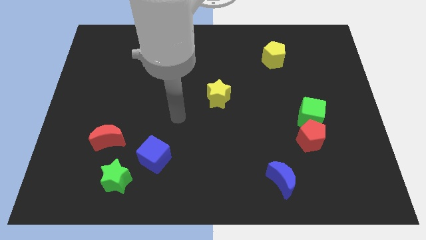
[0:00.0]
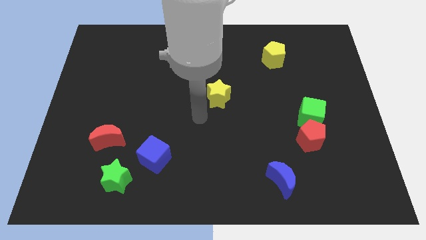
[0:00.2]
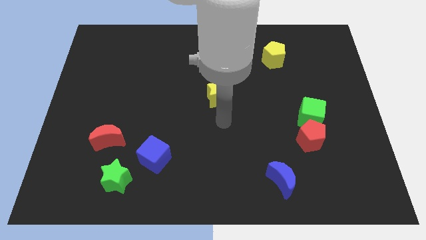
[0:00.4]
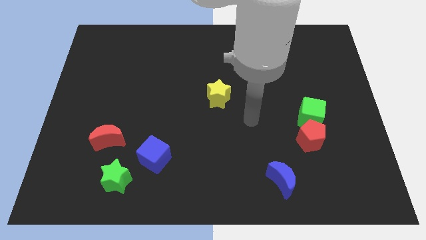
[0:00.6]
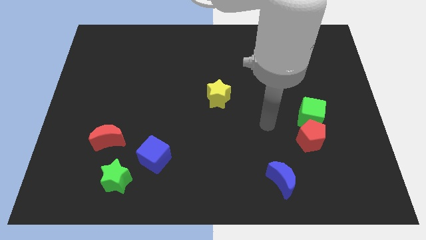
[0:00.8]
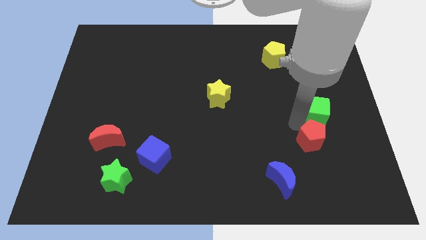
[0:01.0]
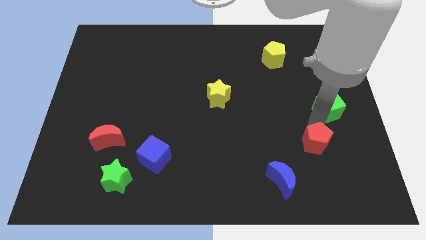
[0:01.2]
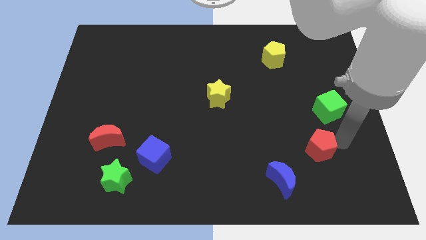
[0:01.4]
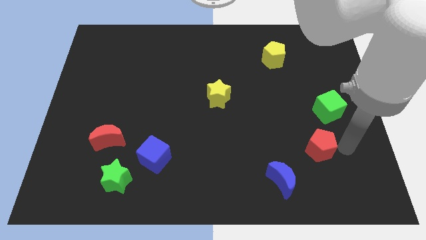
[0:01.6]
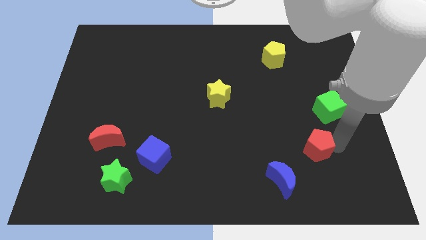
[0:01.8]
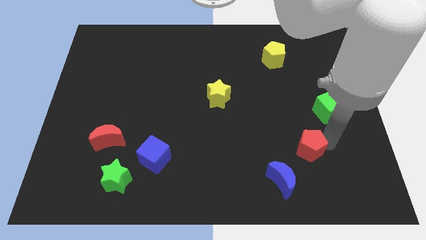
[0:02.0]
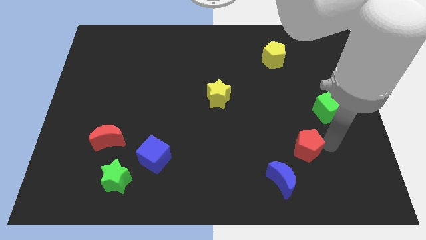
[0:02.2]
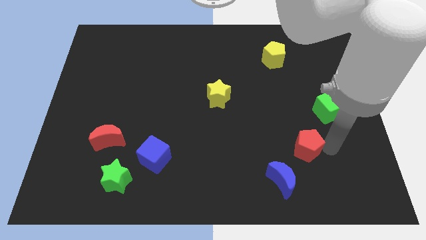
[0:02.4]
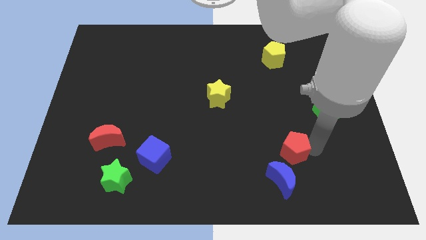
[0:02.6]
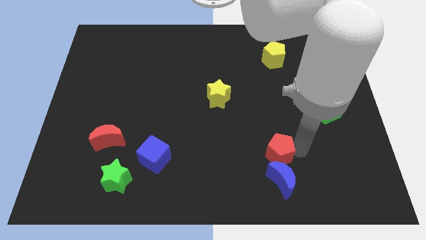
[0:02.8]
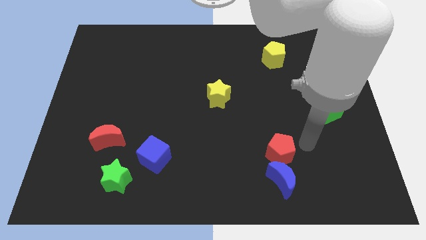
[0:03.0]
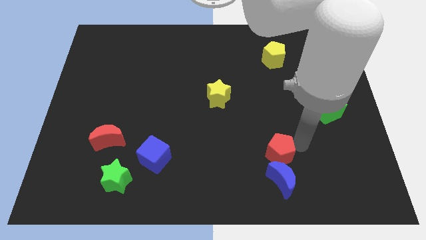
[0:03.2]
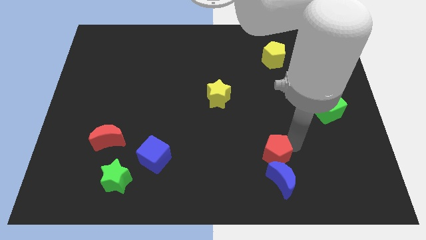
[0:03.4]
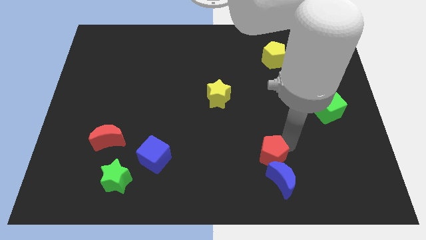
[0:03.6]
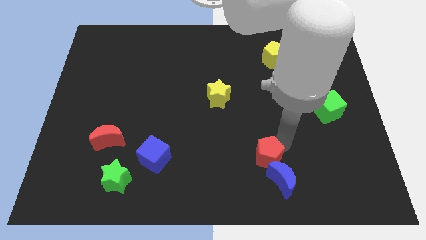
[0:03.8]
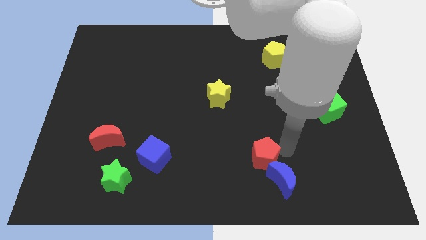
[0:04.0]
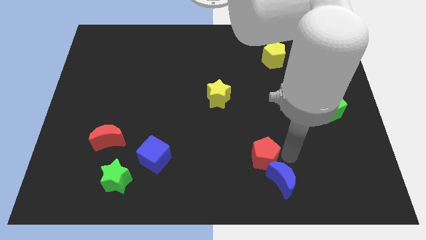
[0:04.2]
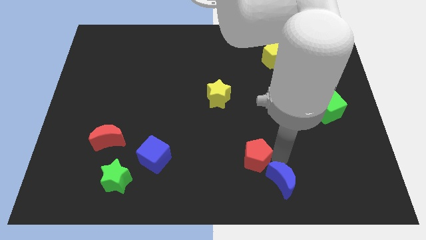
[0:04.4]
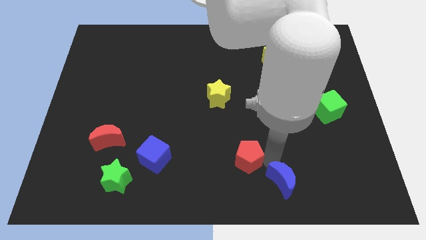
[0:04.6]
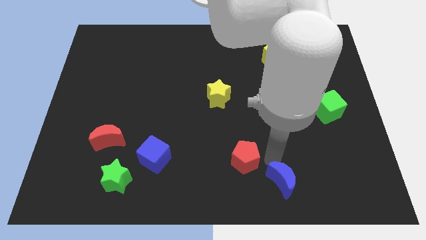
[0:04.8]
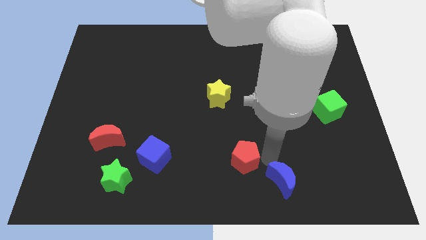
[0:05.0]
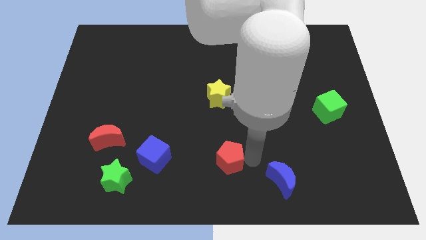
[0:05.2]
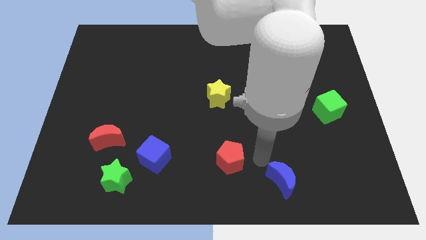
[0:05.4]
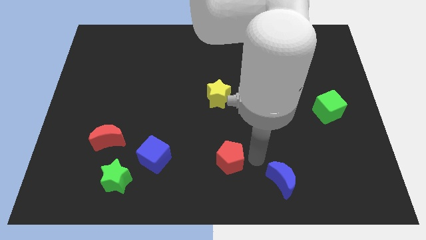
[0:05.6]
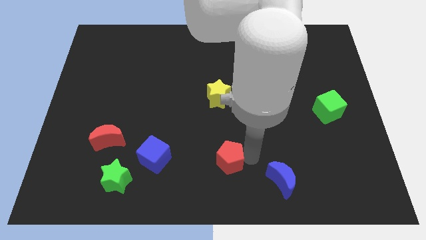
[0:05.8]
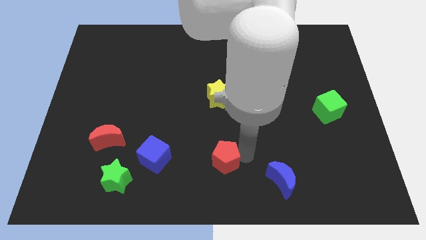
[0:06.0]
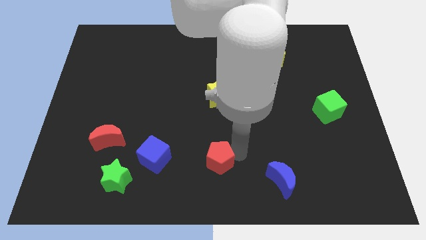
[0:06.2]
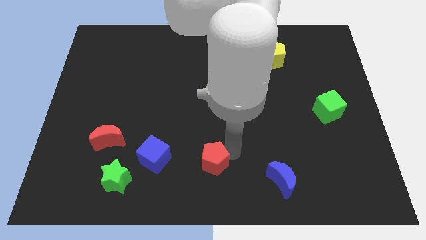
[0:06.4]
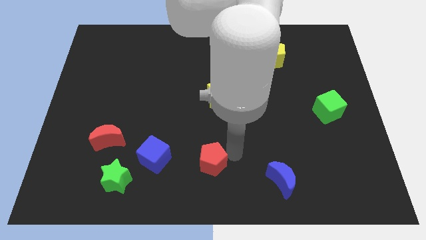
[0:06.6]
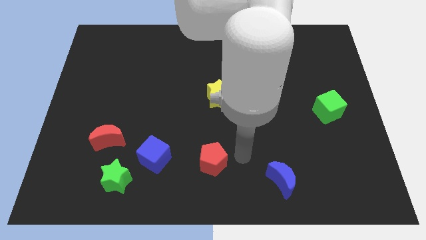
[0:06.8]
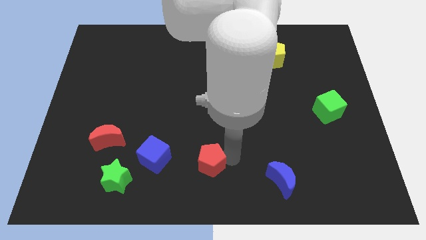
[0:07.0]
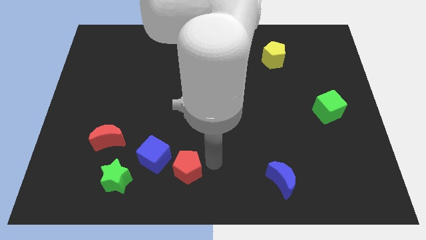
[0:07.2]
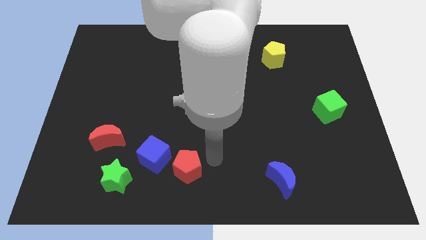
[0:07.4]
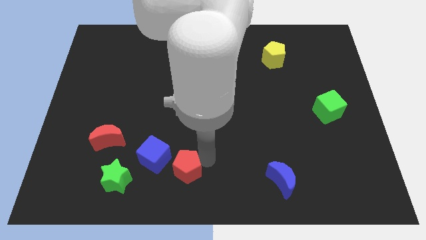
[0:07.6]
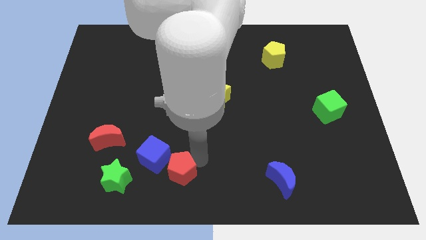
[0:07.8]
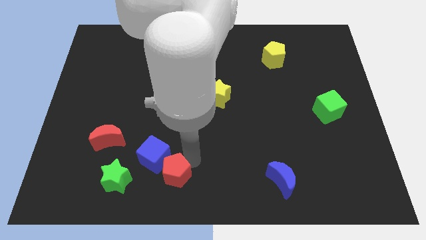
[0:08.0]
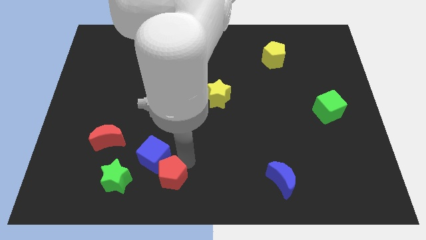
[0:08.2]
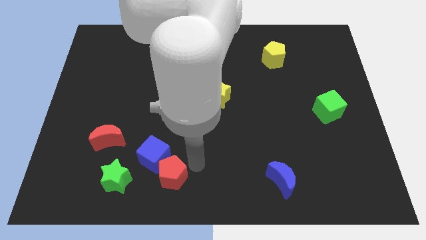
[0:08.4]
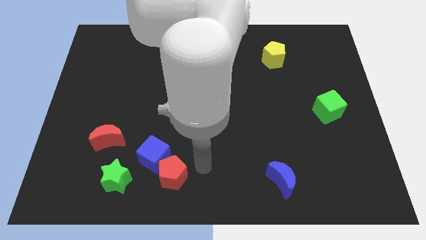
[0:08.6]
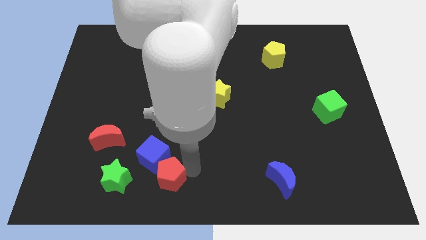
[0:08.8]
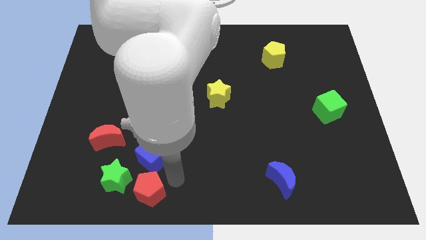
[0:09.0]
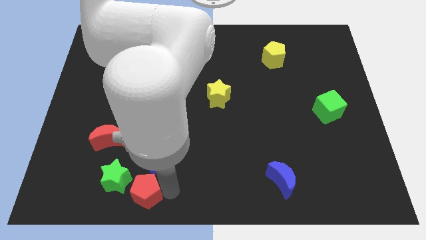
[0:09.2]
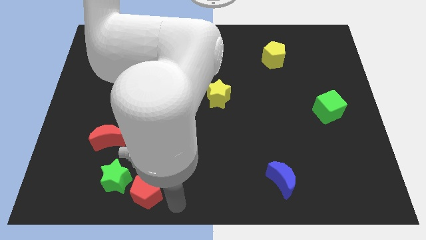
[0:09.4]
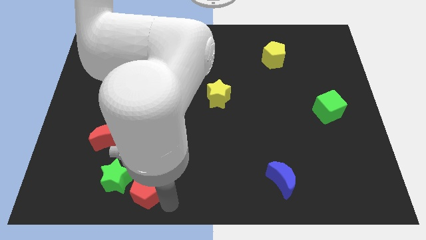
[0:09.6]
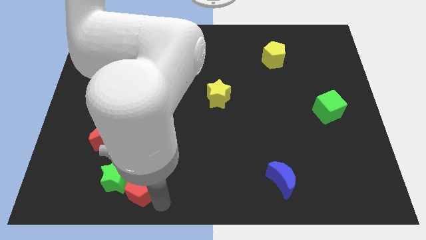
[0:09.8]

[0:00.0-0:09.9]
push the red pentagon towards the green star

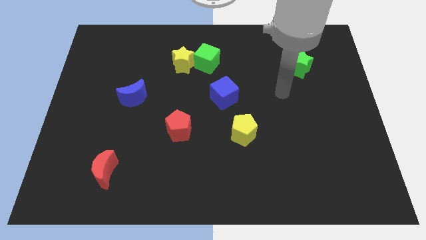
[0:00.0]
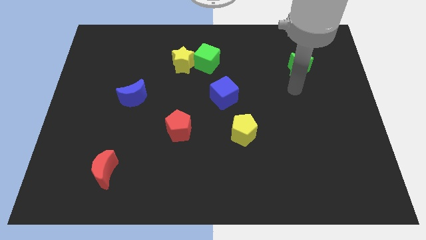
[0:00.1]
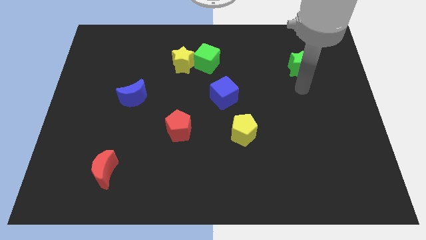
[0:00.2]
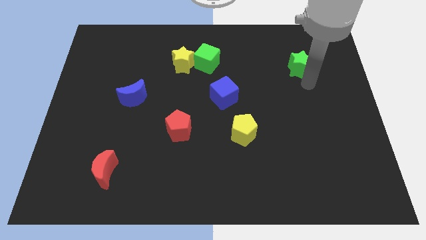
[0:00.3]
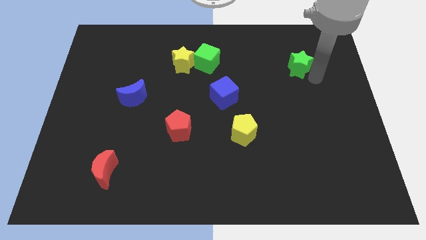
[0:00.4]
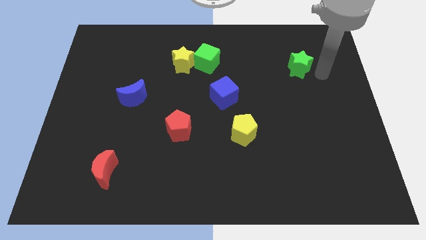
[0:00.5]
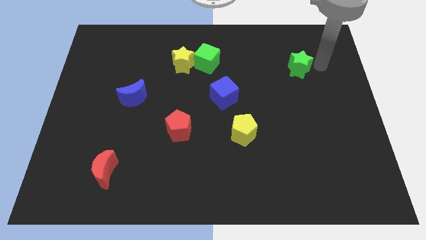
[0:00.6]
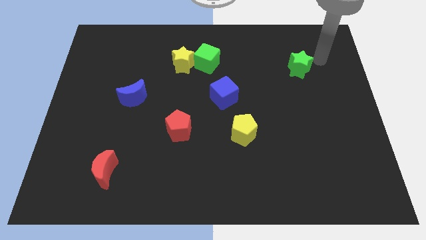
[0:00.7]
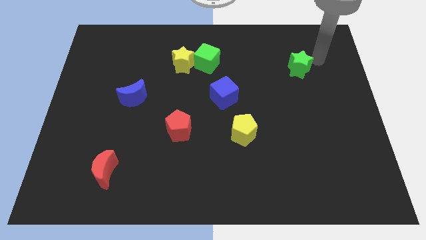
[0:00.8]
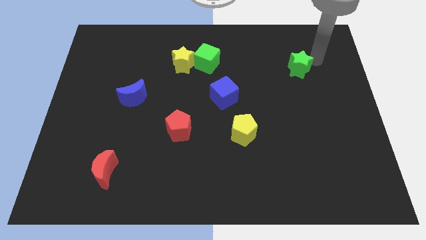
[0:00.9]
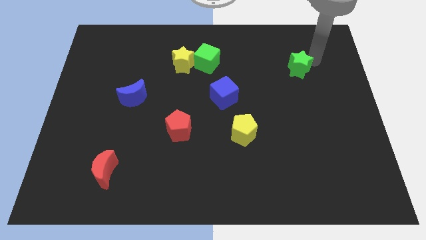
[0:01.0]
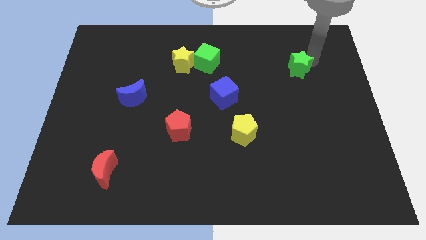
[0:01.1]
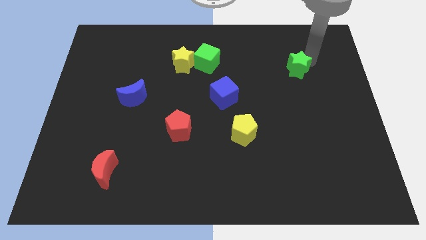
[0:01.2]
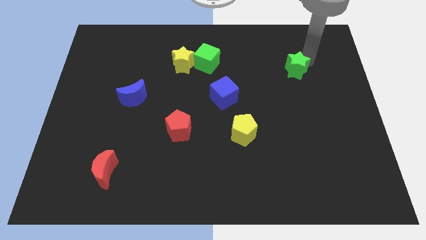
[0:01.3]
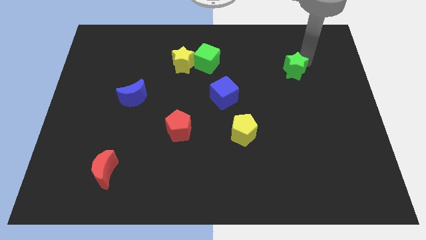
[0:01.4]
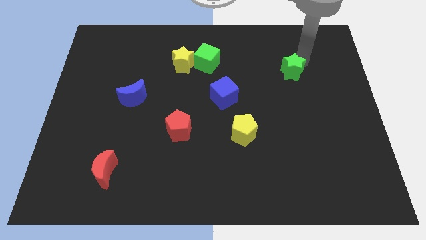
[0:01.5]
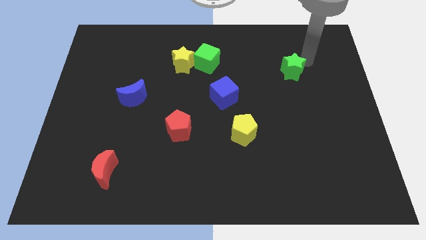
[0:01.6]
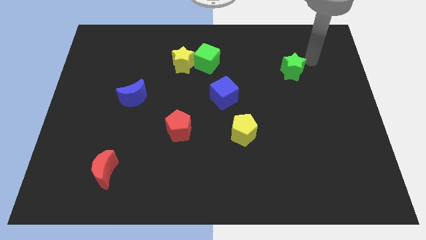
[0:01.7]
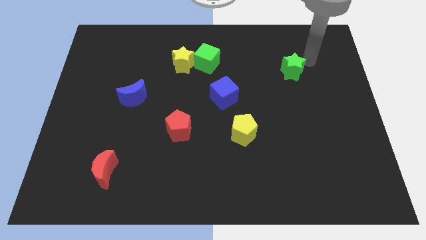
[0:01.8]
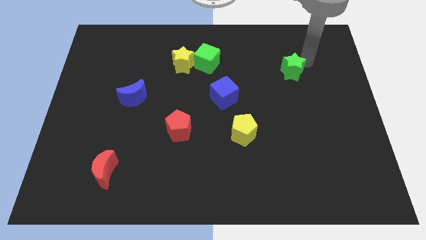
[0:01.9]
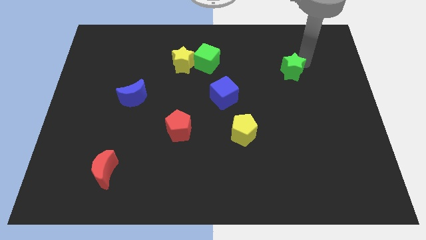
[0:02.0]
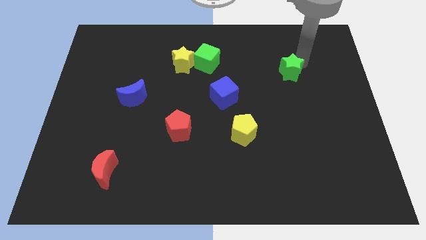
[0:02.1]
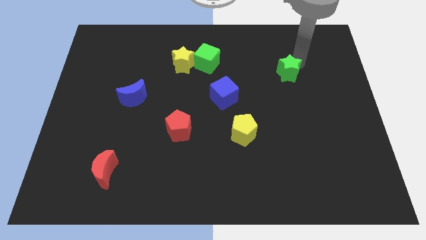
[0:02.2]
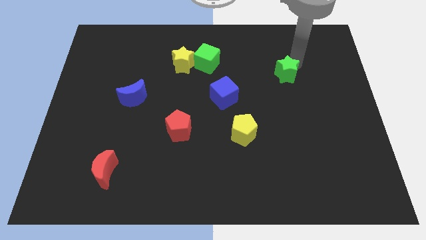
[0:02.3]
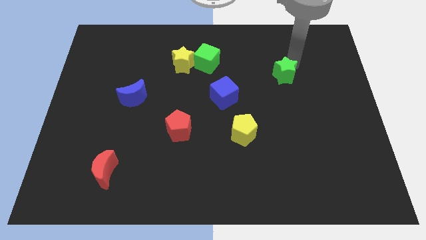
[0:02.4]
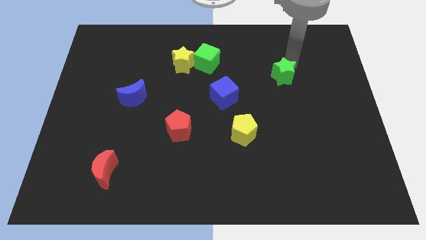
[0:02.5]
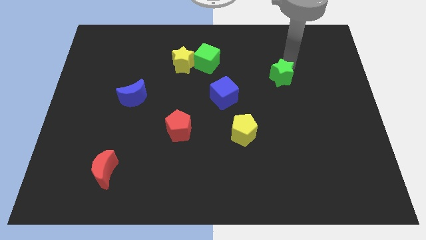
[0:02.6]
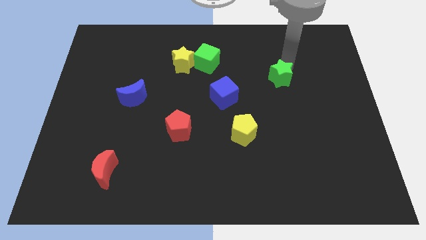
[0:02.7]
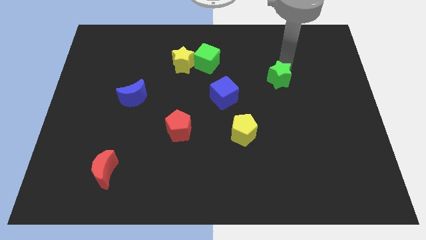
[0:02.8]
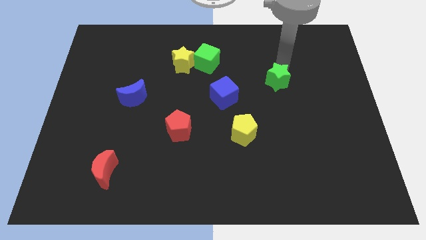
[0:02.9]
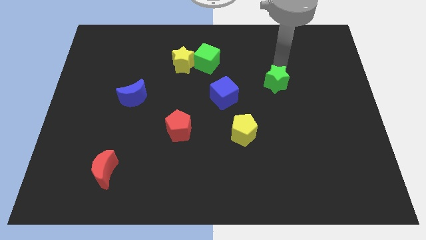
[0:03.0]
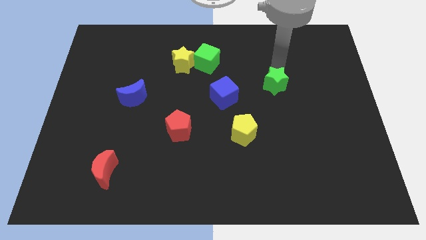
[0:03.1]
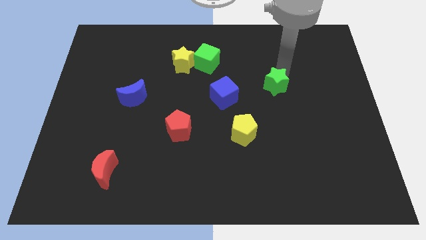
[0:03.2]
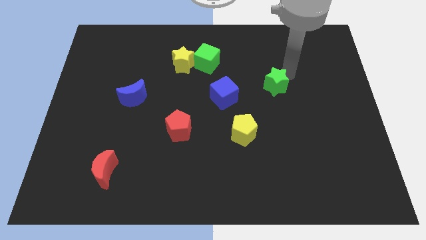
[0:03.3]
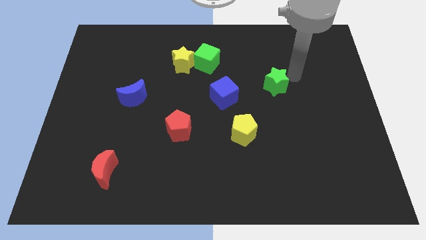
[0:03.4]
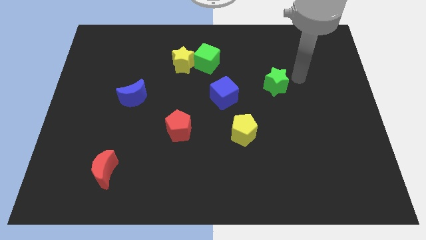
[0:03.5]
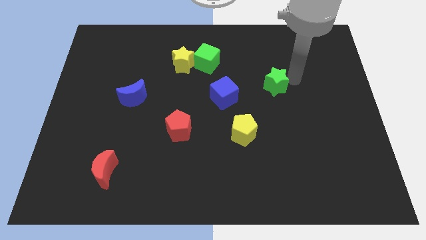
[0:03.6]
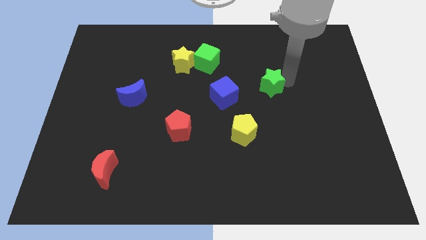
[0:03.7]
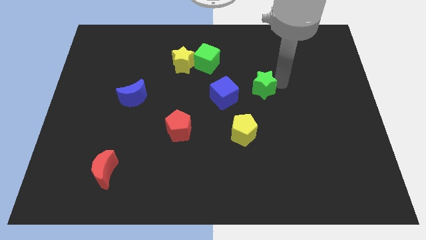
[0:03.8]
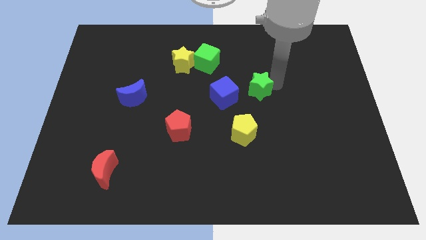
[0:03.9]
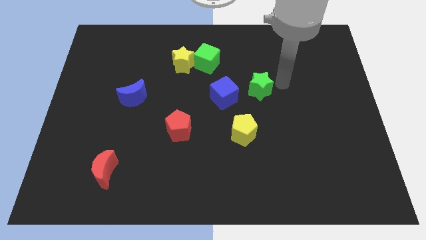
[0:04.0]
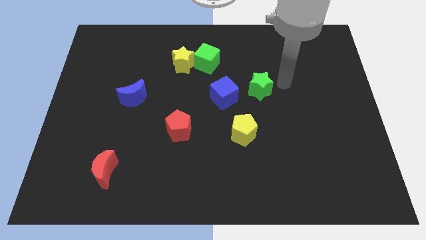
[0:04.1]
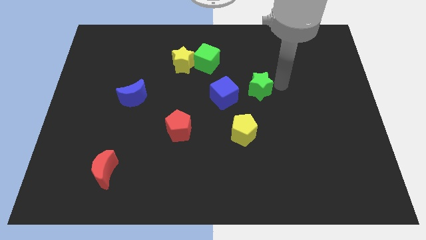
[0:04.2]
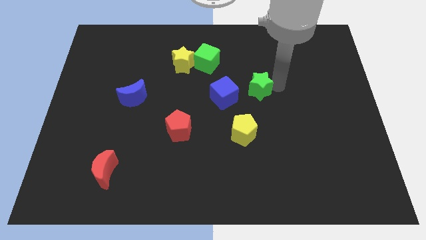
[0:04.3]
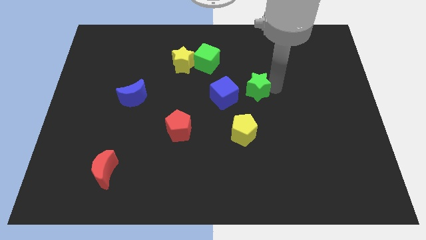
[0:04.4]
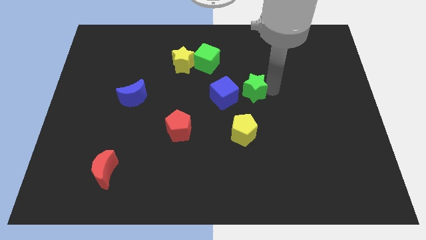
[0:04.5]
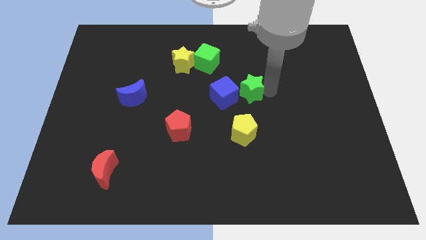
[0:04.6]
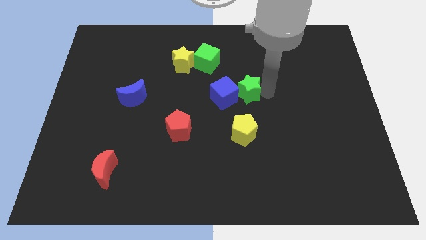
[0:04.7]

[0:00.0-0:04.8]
put the green star towards the blue cube
